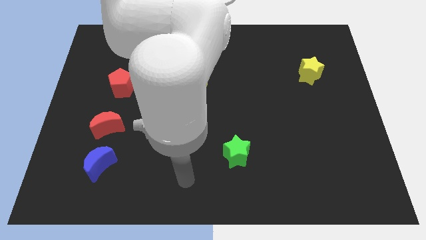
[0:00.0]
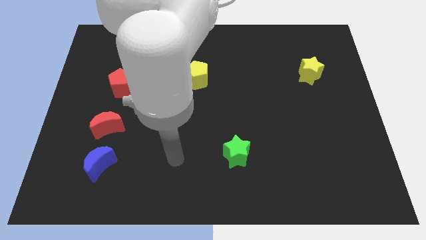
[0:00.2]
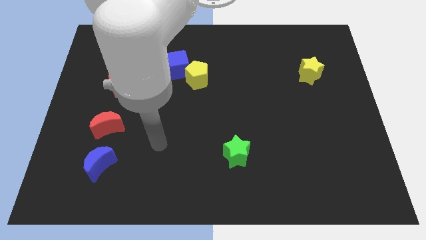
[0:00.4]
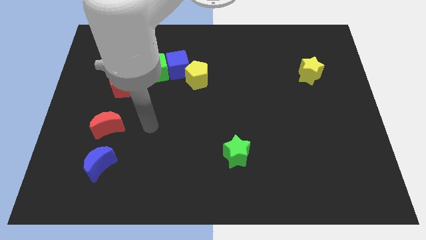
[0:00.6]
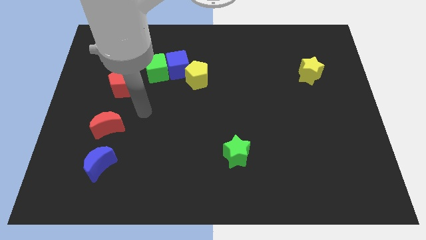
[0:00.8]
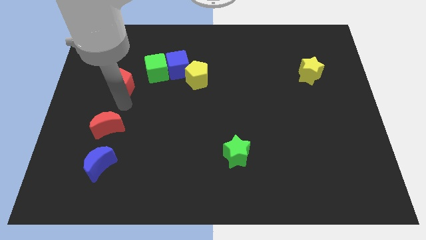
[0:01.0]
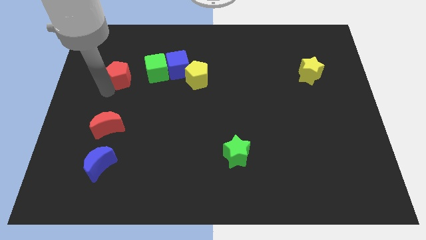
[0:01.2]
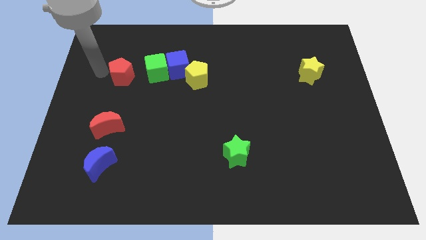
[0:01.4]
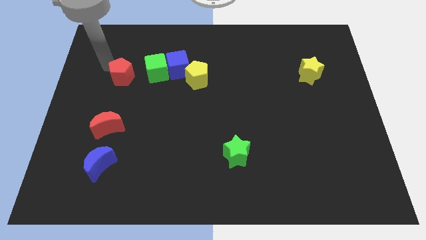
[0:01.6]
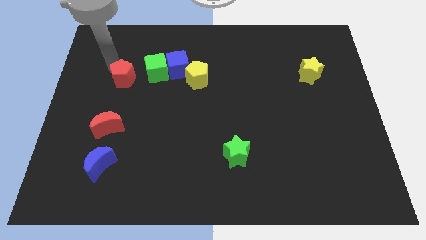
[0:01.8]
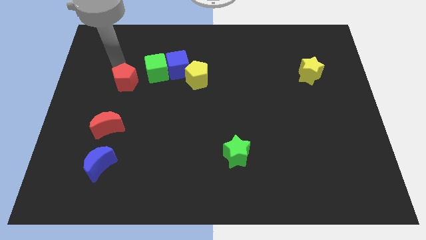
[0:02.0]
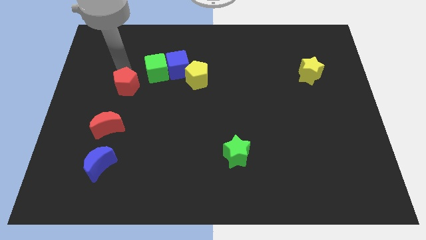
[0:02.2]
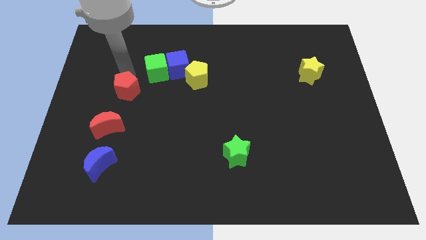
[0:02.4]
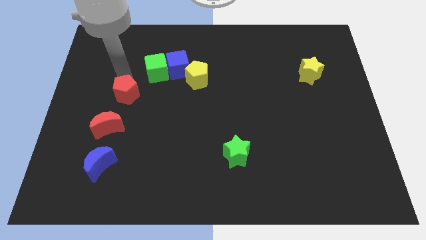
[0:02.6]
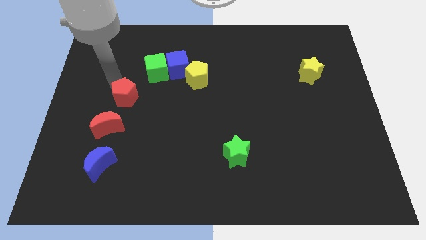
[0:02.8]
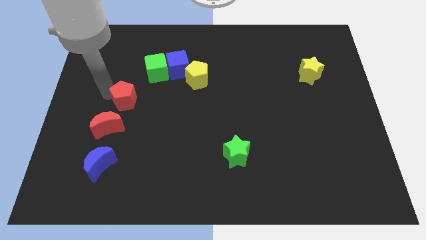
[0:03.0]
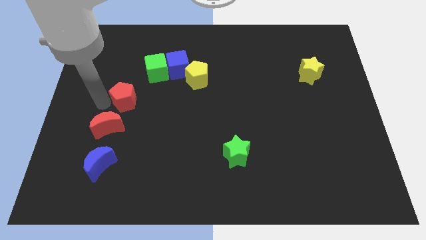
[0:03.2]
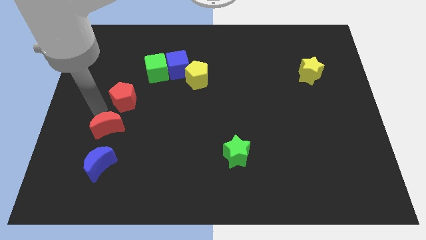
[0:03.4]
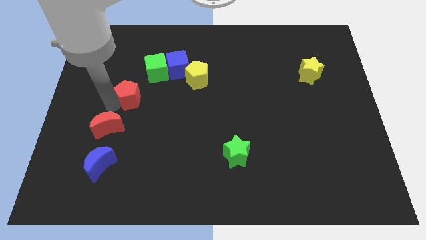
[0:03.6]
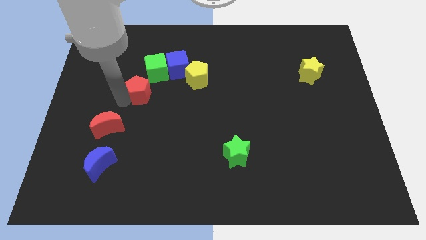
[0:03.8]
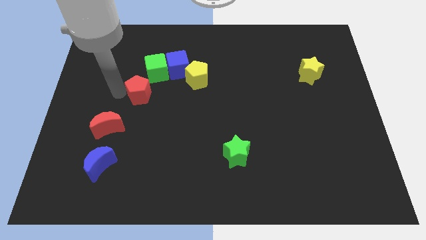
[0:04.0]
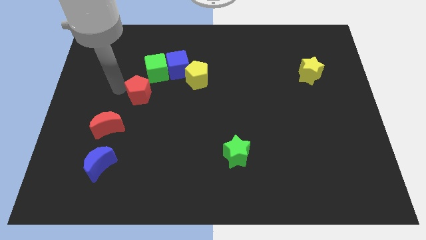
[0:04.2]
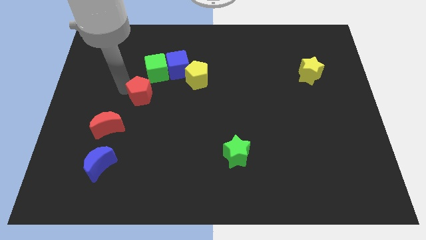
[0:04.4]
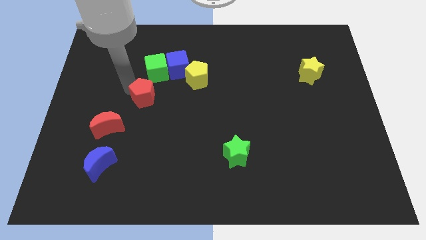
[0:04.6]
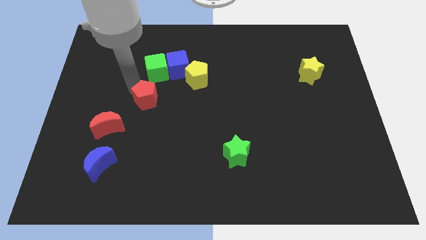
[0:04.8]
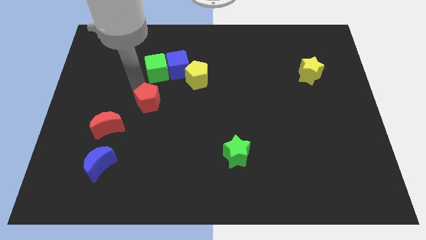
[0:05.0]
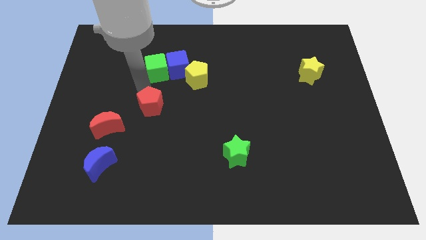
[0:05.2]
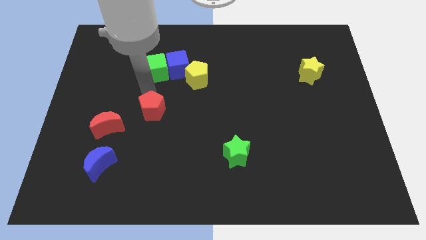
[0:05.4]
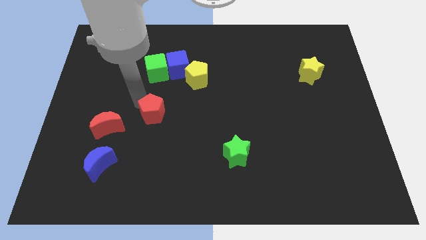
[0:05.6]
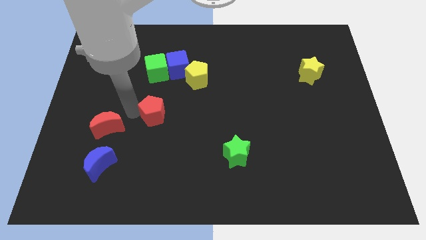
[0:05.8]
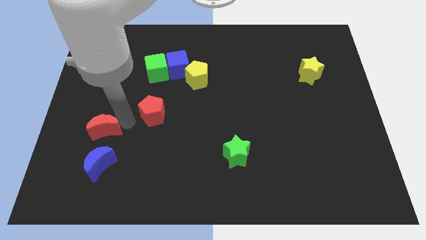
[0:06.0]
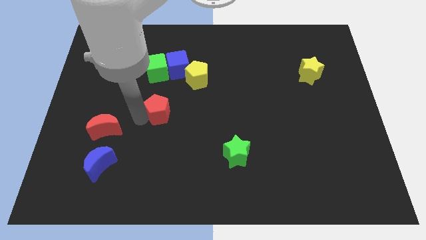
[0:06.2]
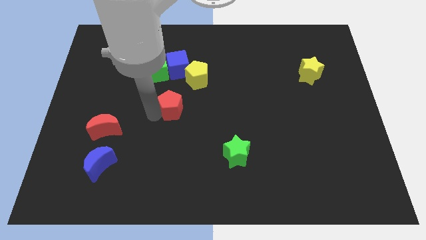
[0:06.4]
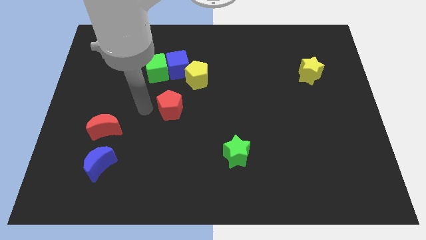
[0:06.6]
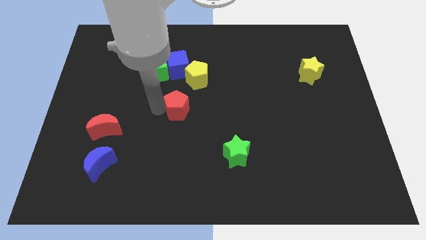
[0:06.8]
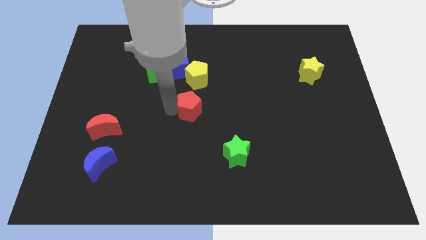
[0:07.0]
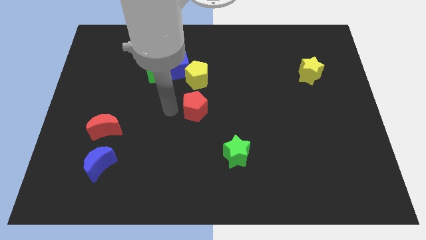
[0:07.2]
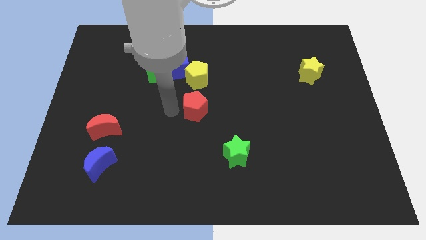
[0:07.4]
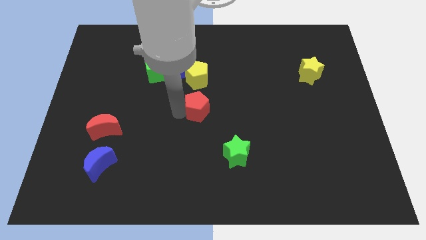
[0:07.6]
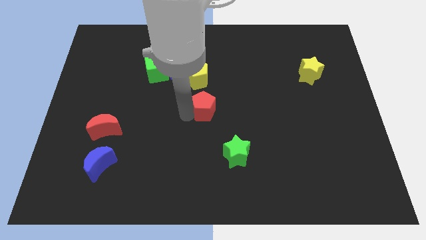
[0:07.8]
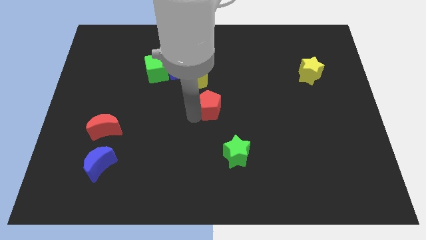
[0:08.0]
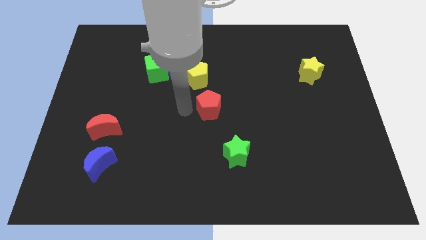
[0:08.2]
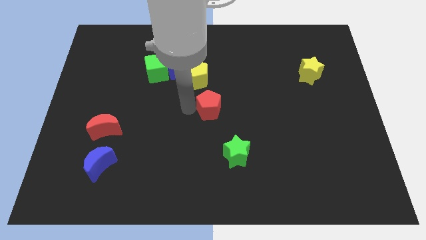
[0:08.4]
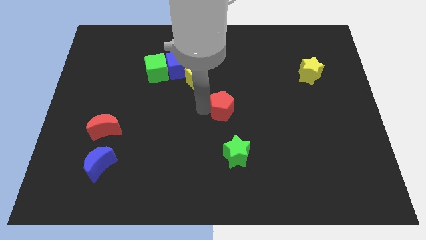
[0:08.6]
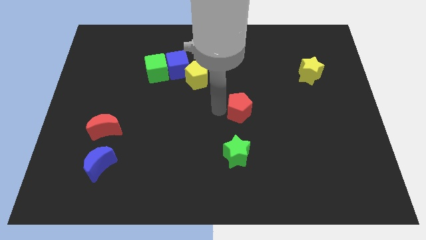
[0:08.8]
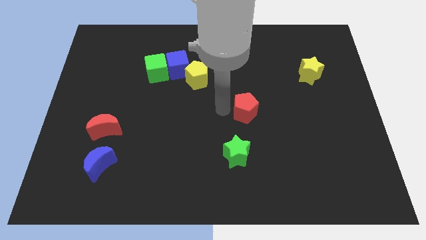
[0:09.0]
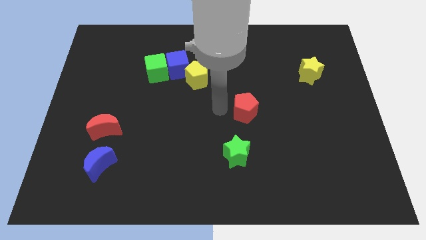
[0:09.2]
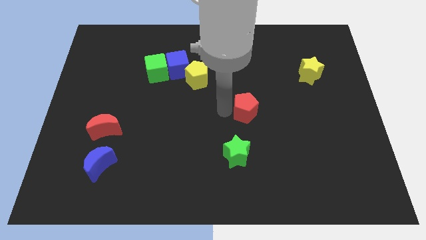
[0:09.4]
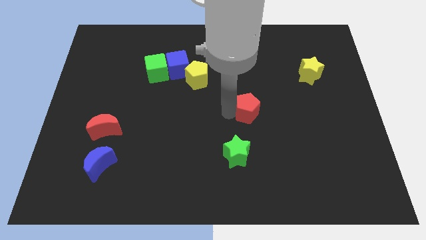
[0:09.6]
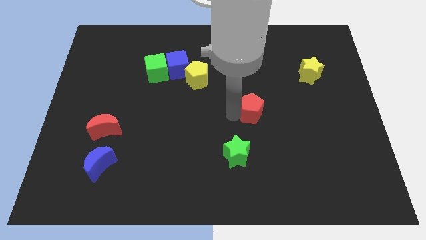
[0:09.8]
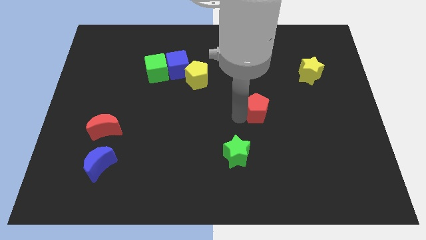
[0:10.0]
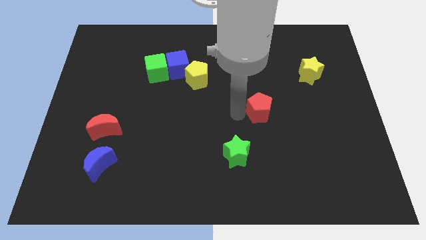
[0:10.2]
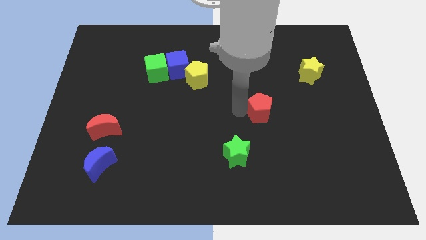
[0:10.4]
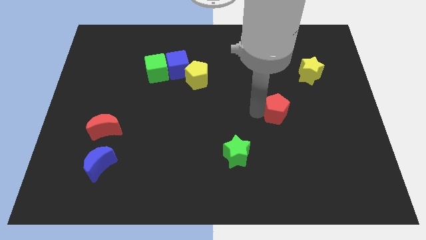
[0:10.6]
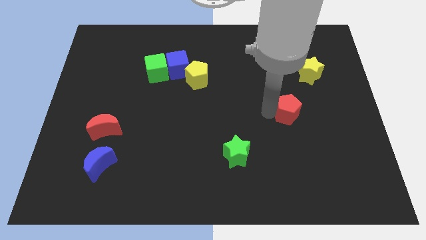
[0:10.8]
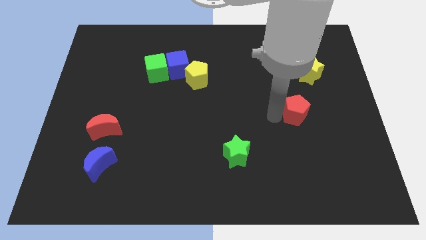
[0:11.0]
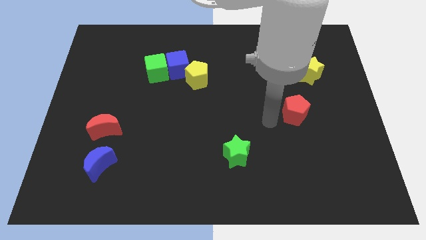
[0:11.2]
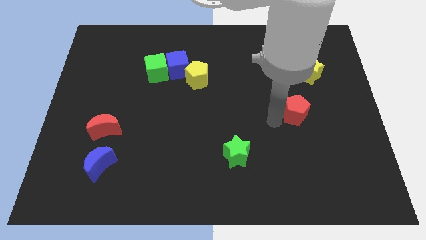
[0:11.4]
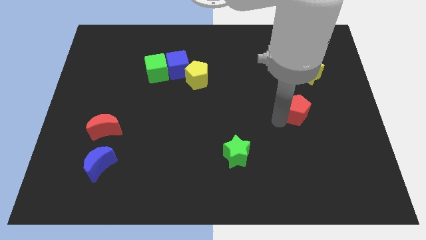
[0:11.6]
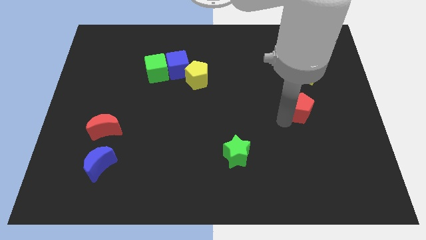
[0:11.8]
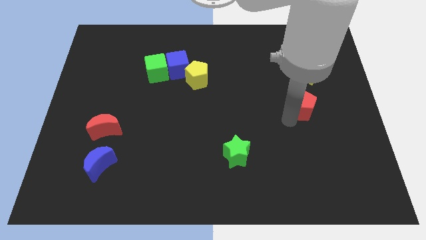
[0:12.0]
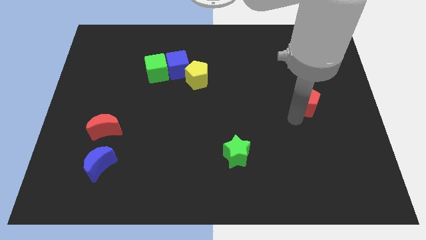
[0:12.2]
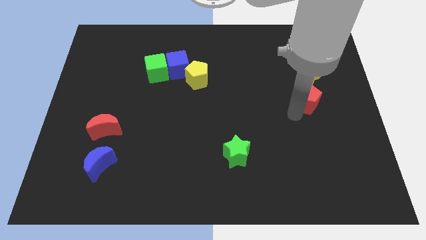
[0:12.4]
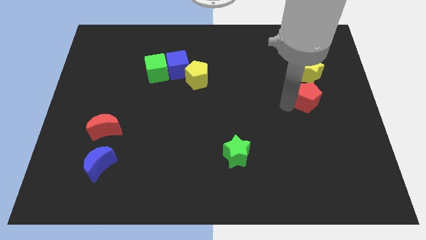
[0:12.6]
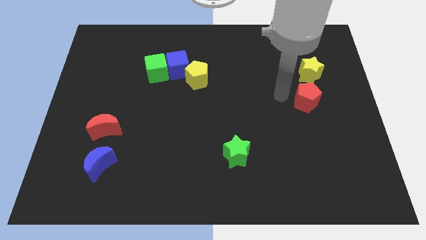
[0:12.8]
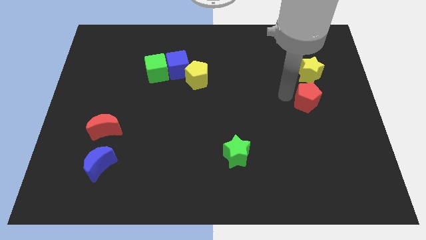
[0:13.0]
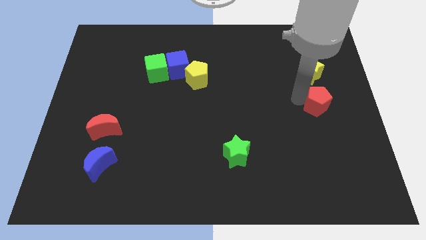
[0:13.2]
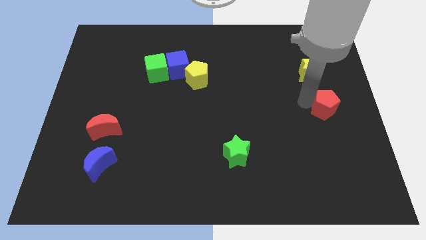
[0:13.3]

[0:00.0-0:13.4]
slide the red pentagon to the center right

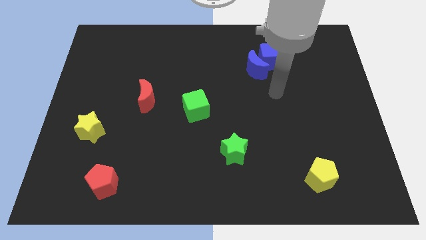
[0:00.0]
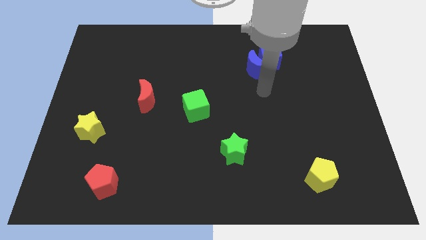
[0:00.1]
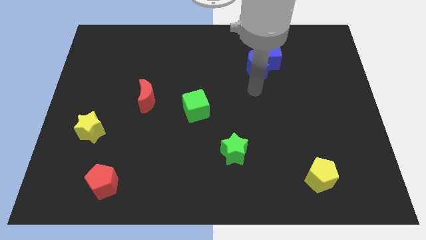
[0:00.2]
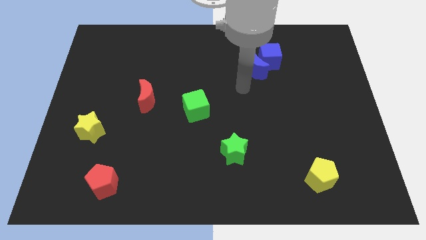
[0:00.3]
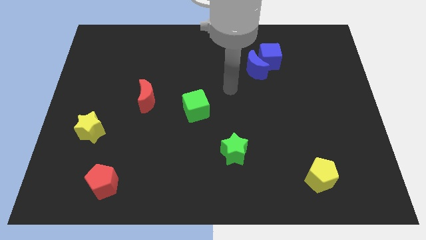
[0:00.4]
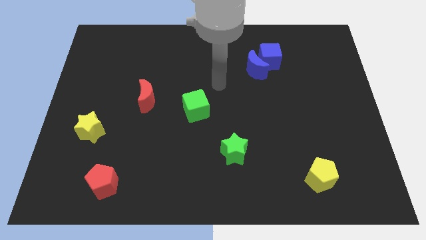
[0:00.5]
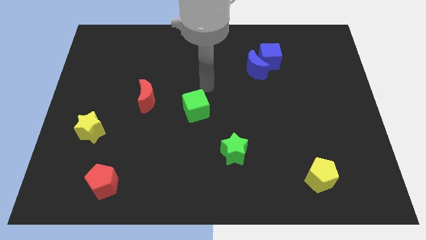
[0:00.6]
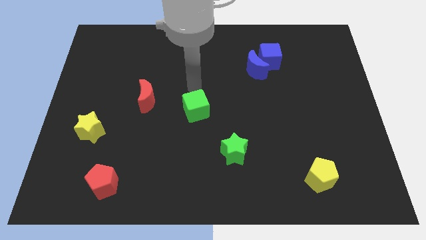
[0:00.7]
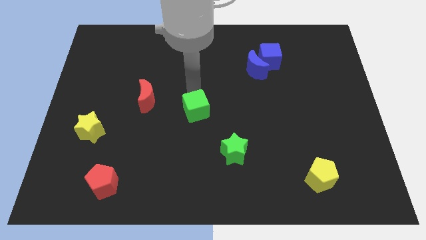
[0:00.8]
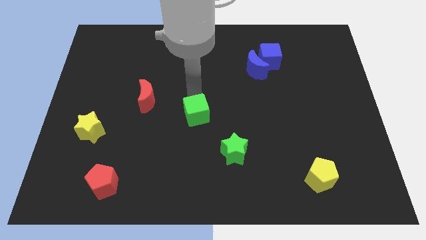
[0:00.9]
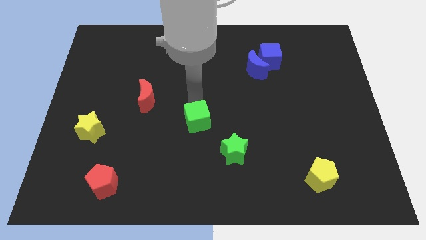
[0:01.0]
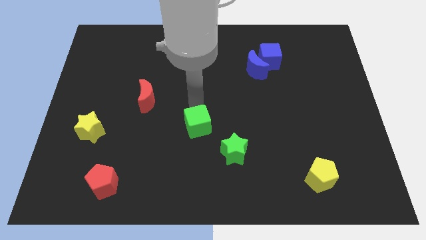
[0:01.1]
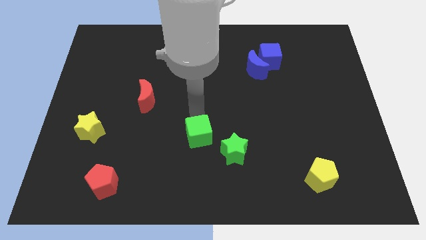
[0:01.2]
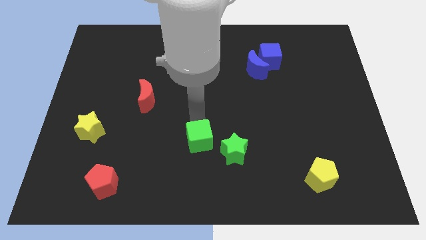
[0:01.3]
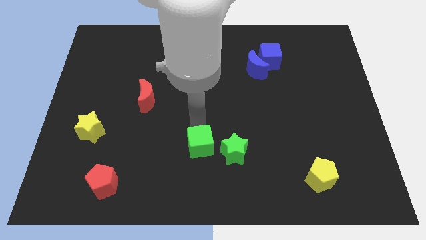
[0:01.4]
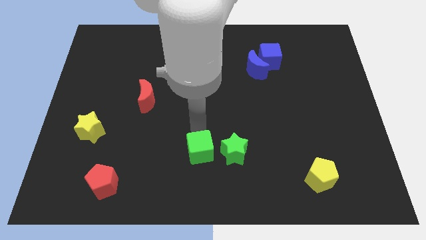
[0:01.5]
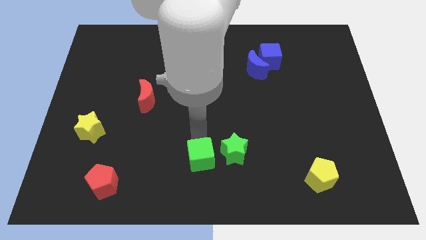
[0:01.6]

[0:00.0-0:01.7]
slide the green cube to the bottom

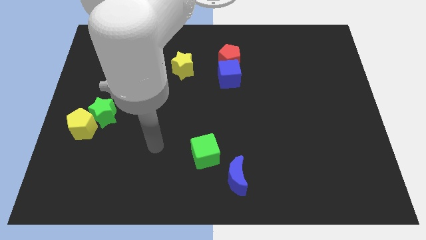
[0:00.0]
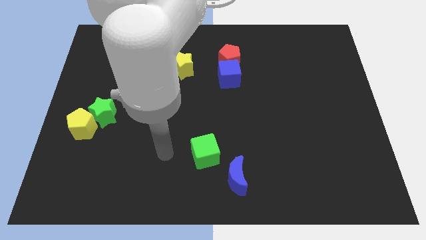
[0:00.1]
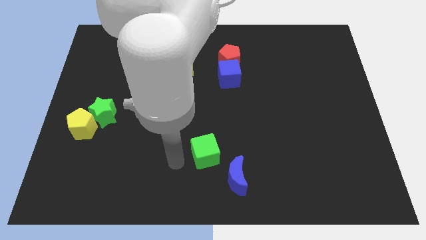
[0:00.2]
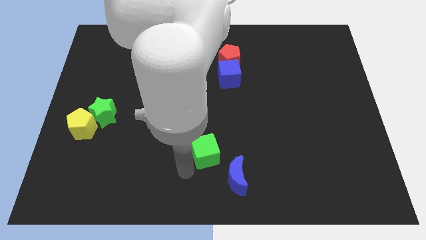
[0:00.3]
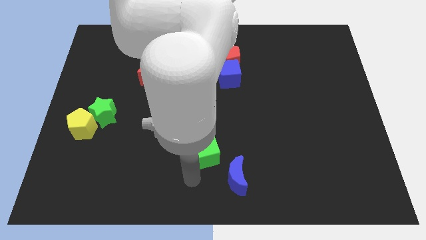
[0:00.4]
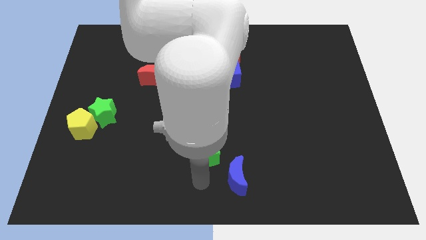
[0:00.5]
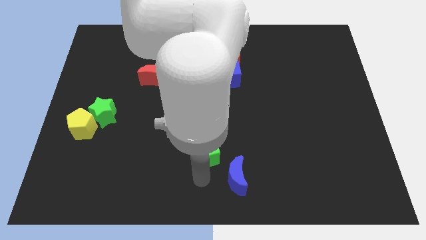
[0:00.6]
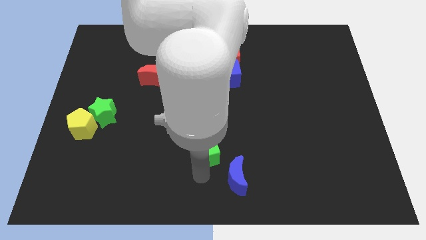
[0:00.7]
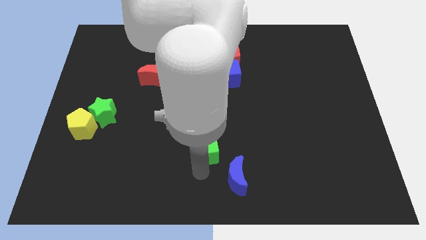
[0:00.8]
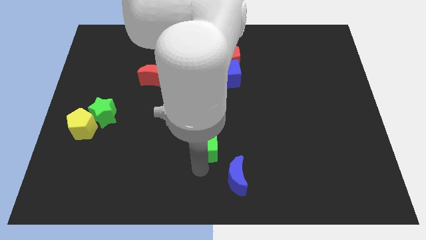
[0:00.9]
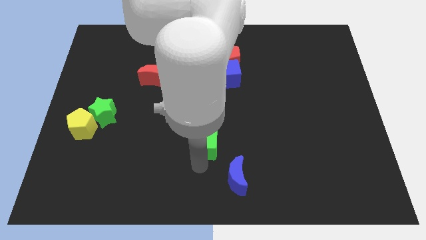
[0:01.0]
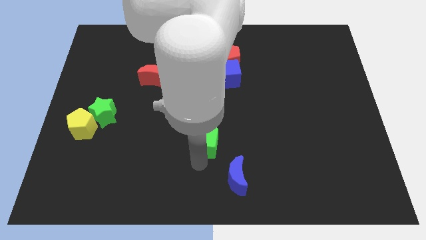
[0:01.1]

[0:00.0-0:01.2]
slide the green cube to the middle of the board
